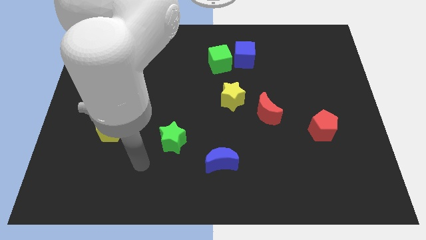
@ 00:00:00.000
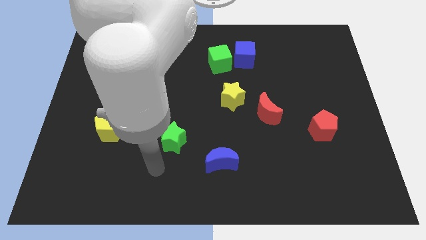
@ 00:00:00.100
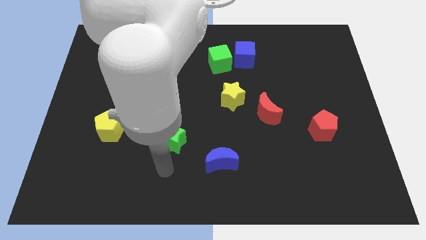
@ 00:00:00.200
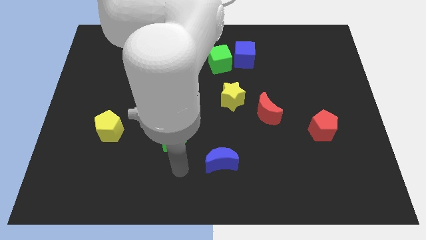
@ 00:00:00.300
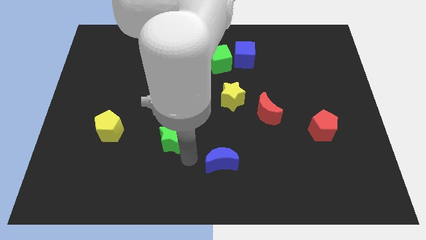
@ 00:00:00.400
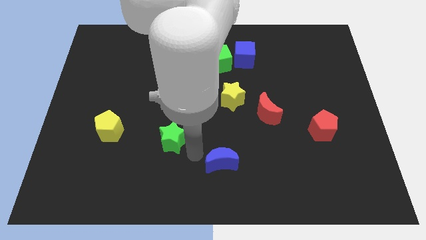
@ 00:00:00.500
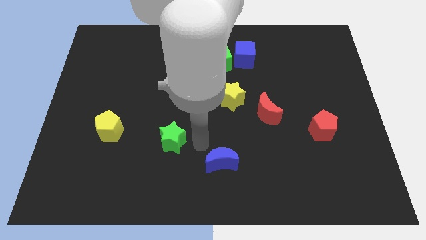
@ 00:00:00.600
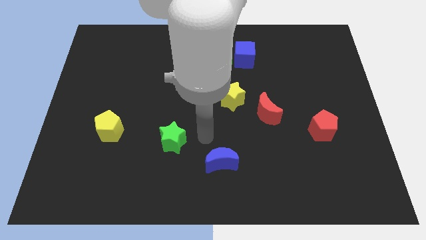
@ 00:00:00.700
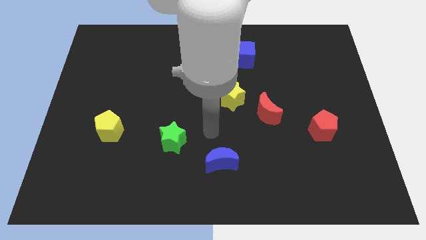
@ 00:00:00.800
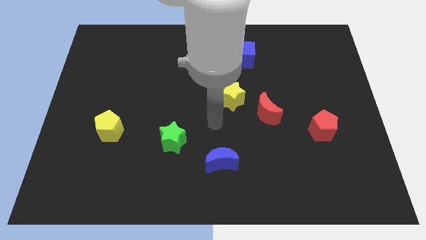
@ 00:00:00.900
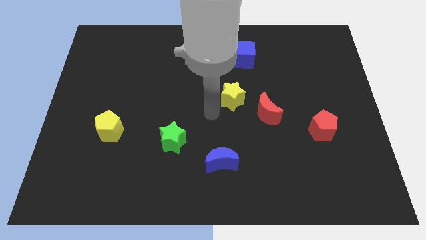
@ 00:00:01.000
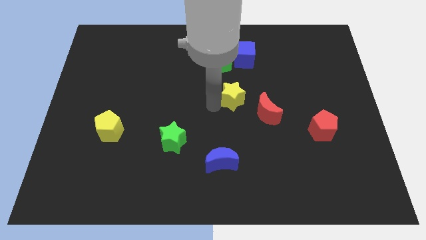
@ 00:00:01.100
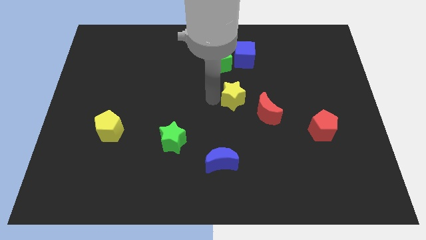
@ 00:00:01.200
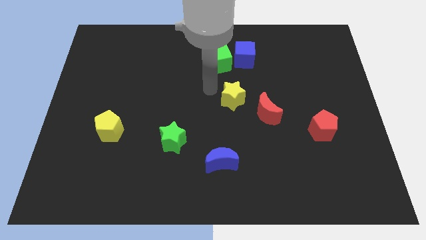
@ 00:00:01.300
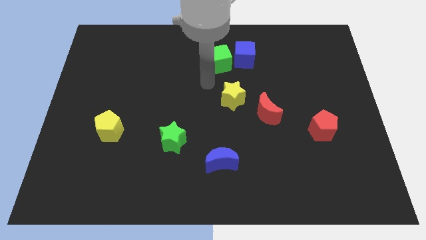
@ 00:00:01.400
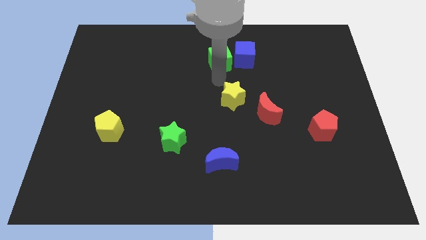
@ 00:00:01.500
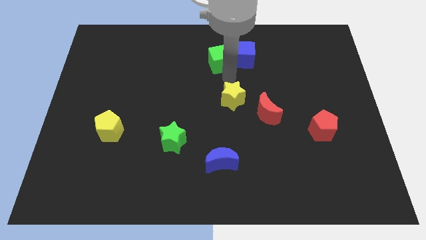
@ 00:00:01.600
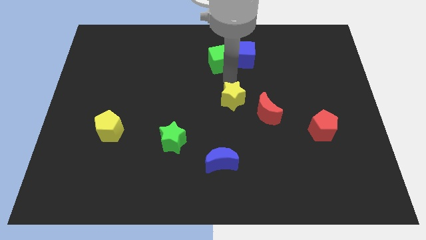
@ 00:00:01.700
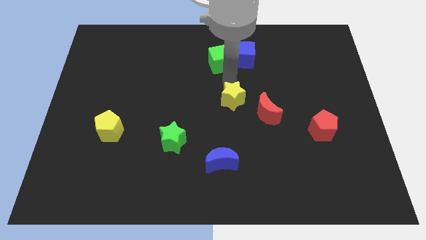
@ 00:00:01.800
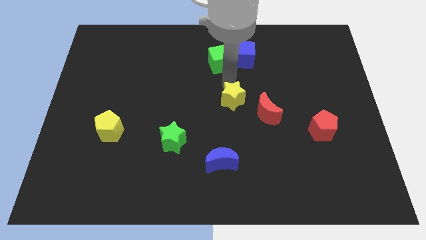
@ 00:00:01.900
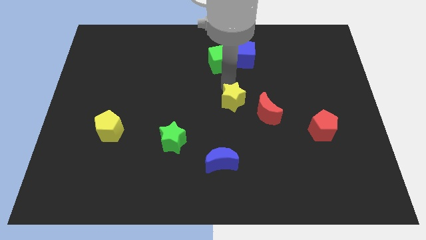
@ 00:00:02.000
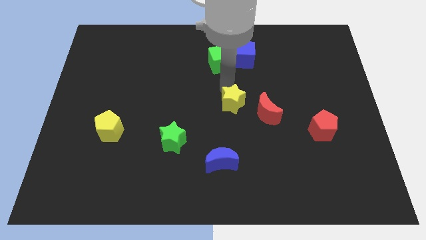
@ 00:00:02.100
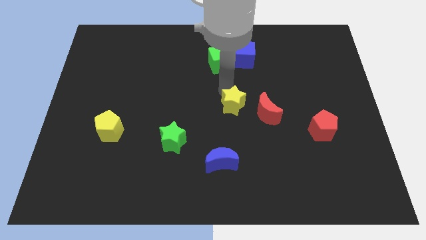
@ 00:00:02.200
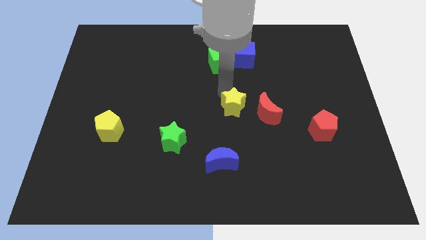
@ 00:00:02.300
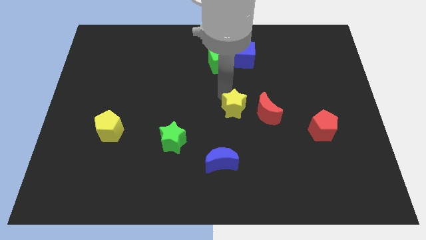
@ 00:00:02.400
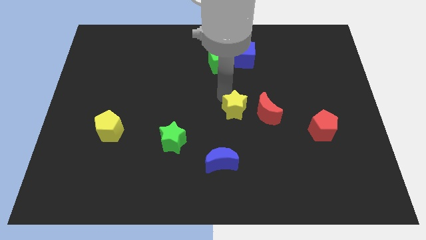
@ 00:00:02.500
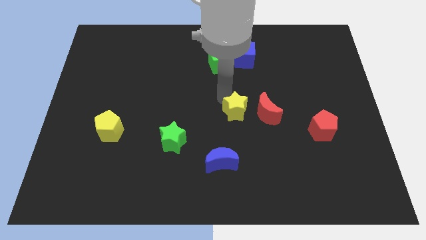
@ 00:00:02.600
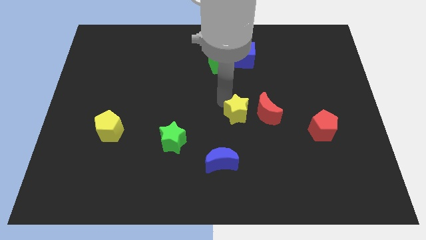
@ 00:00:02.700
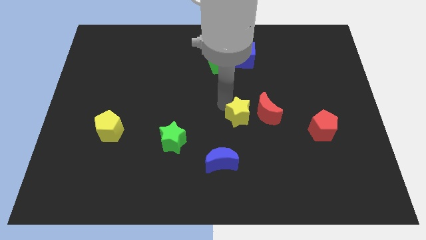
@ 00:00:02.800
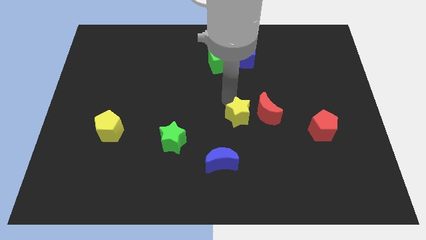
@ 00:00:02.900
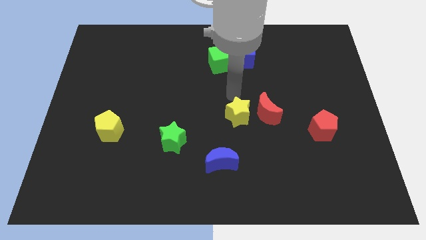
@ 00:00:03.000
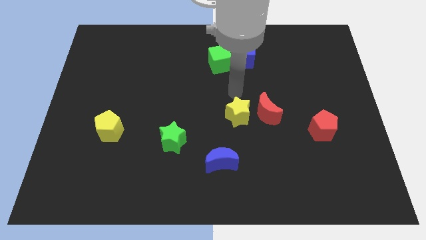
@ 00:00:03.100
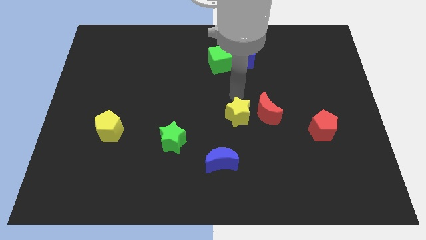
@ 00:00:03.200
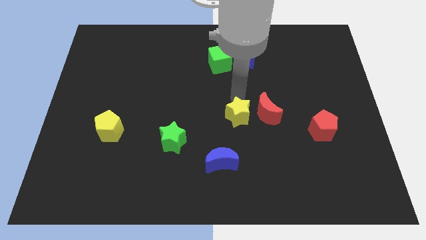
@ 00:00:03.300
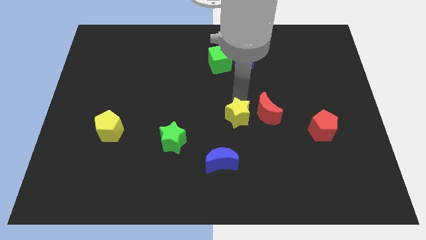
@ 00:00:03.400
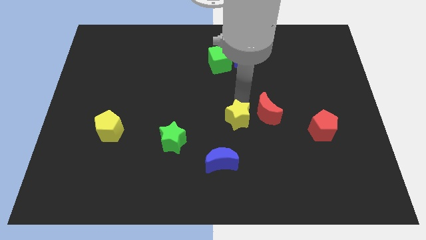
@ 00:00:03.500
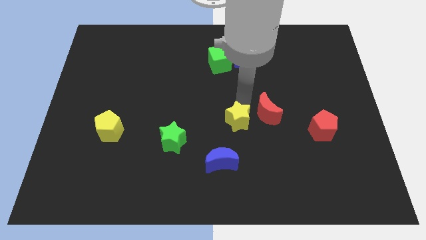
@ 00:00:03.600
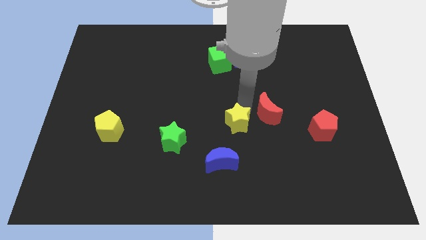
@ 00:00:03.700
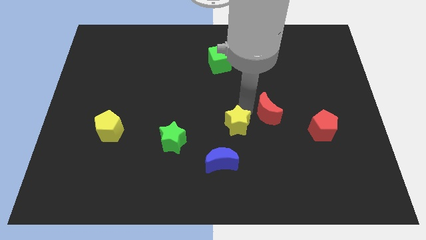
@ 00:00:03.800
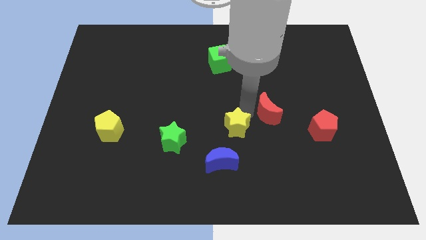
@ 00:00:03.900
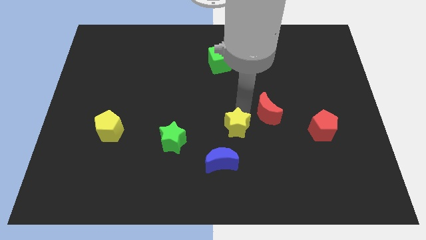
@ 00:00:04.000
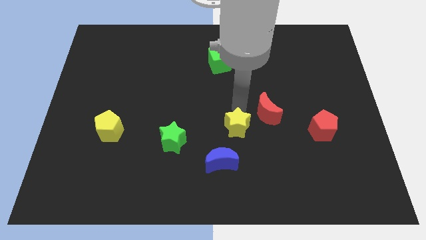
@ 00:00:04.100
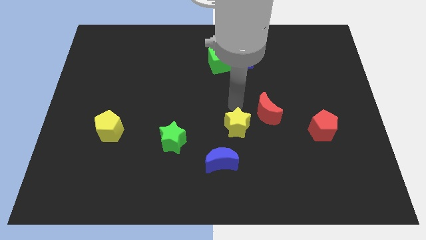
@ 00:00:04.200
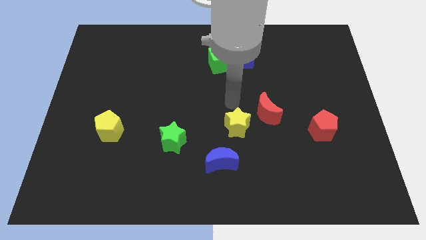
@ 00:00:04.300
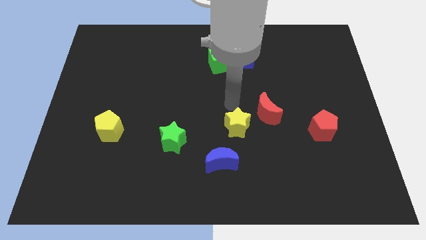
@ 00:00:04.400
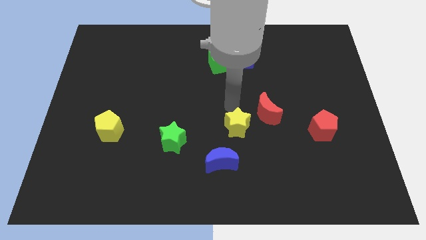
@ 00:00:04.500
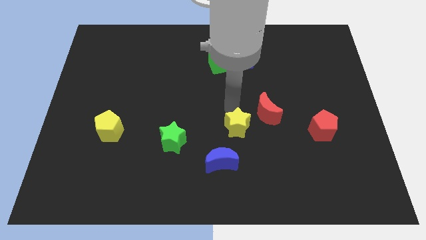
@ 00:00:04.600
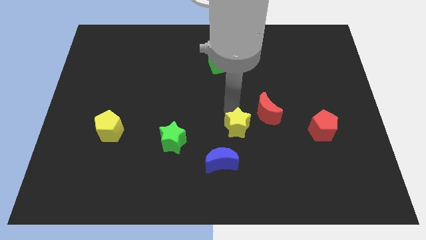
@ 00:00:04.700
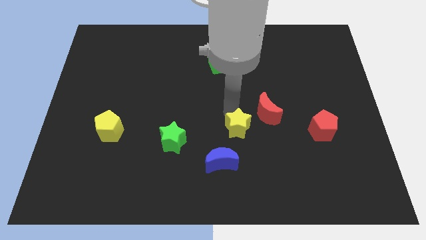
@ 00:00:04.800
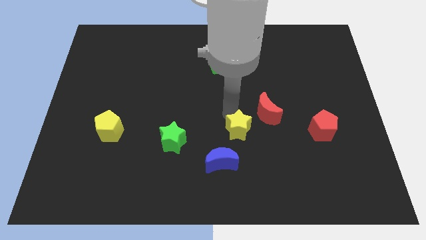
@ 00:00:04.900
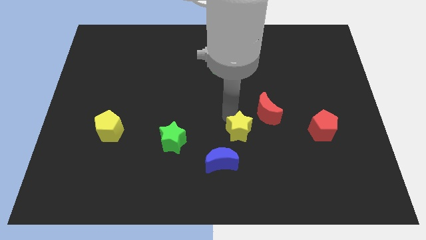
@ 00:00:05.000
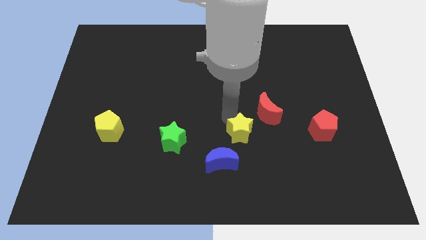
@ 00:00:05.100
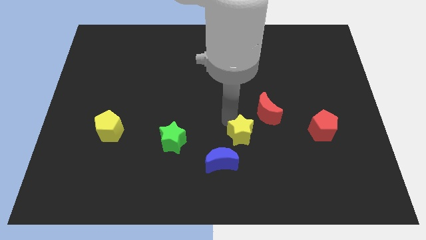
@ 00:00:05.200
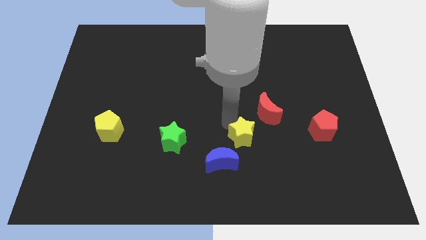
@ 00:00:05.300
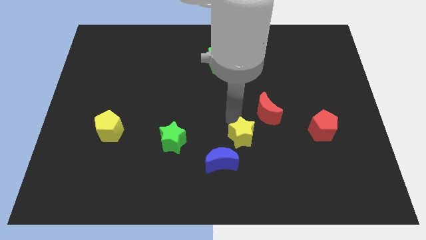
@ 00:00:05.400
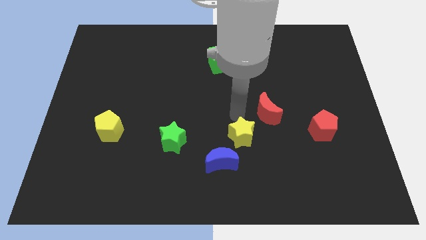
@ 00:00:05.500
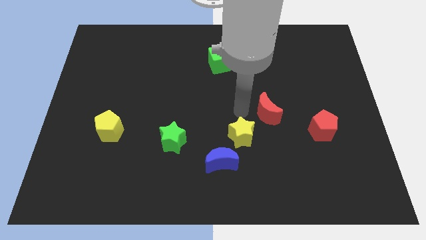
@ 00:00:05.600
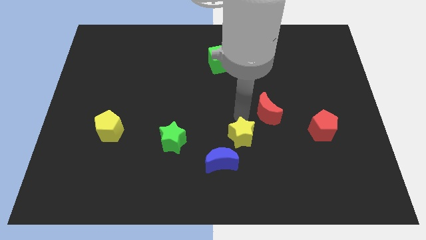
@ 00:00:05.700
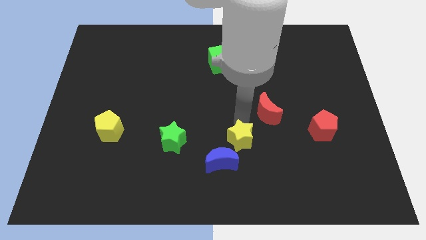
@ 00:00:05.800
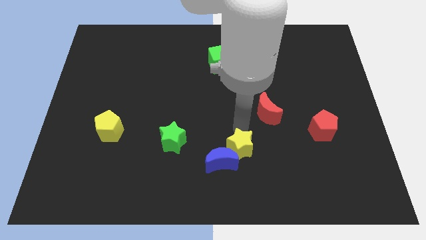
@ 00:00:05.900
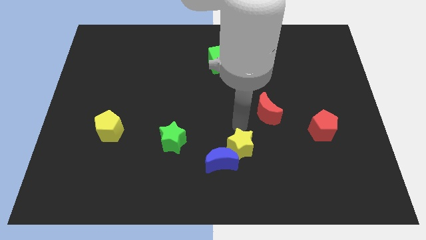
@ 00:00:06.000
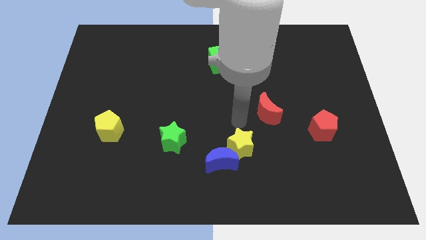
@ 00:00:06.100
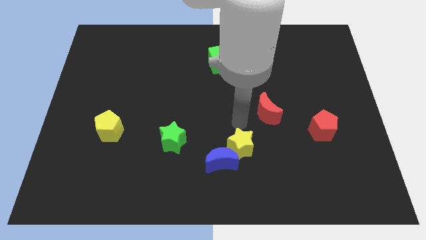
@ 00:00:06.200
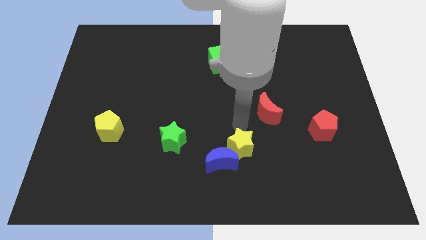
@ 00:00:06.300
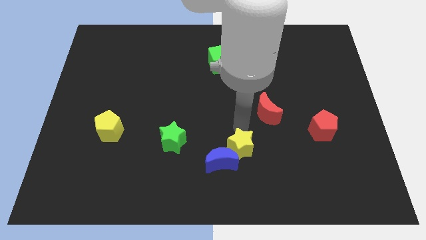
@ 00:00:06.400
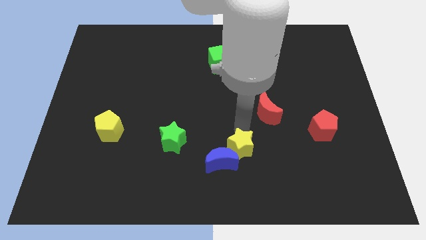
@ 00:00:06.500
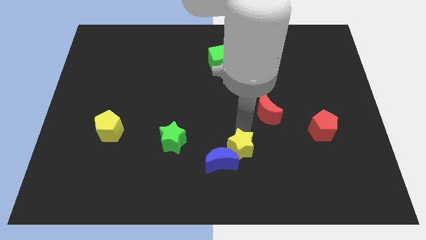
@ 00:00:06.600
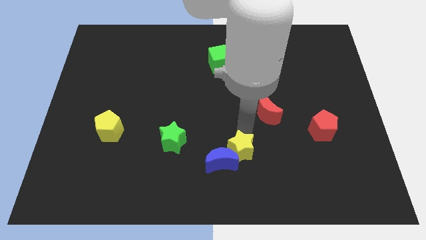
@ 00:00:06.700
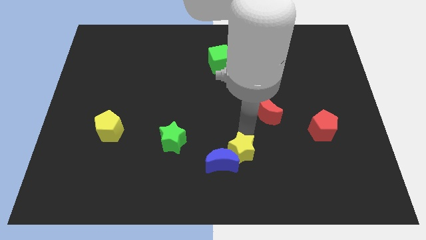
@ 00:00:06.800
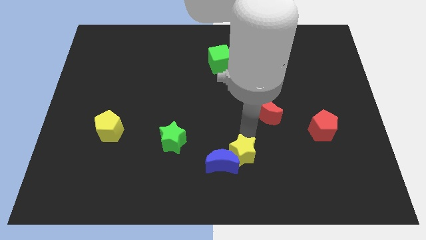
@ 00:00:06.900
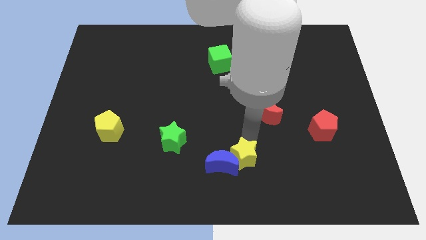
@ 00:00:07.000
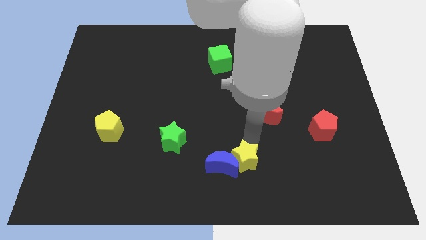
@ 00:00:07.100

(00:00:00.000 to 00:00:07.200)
move the yellow star diagonally down and to the right of the blue moon
